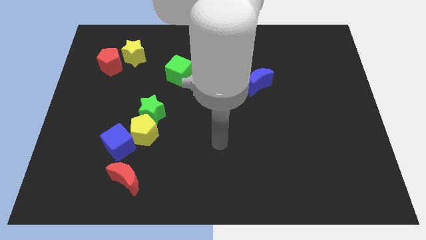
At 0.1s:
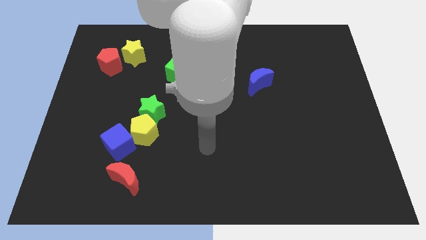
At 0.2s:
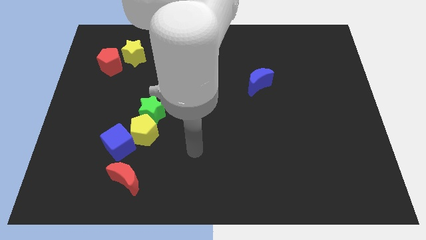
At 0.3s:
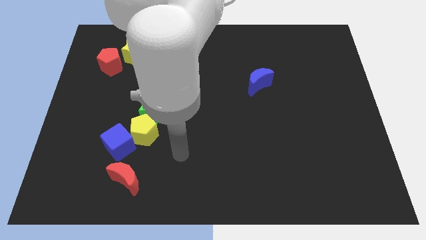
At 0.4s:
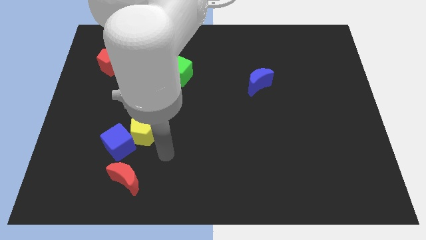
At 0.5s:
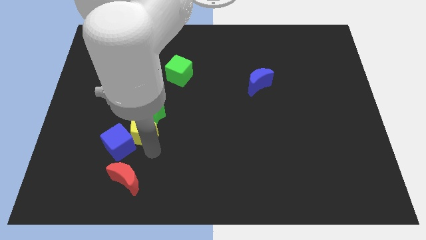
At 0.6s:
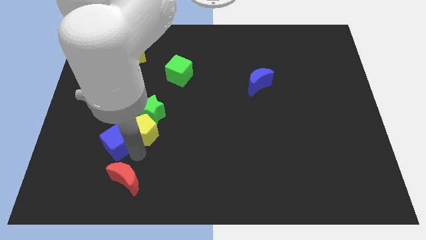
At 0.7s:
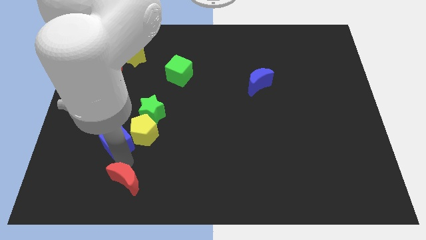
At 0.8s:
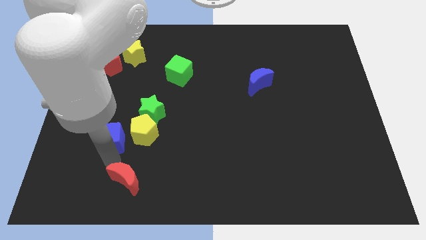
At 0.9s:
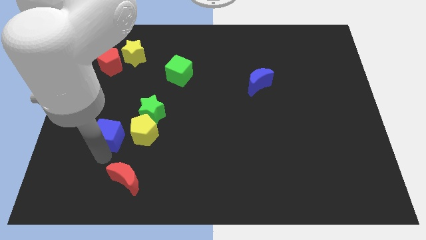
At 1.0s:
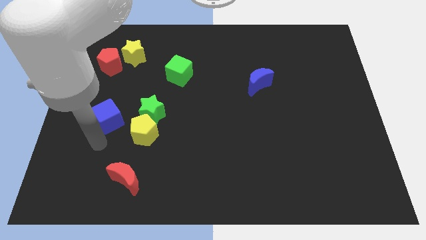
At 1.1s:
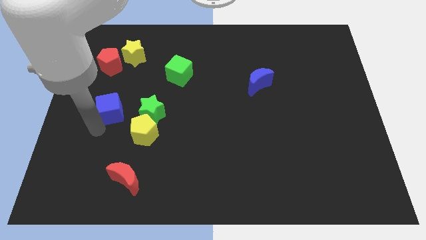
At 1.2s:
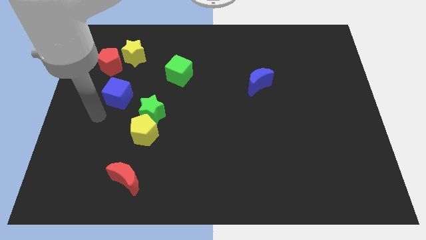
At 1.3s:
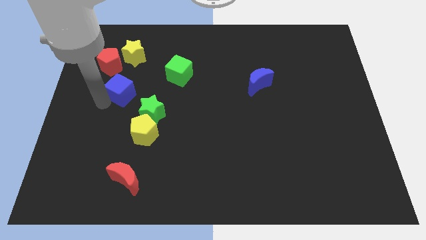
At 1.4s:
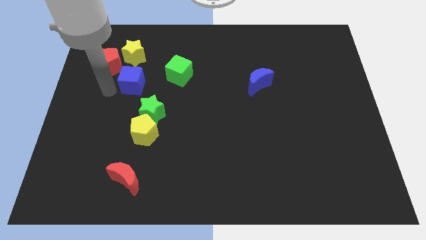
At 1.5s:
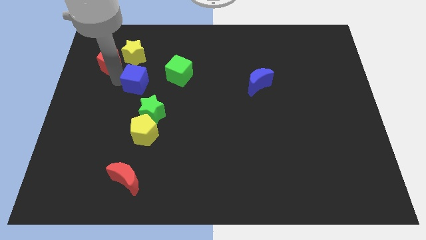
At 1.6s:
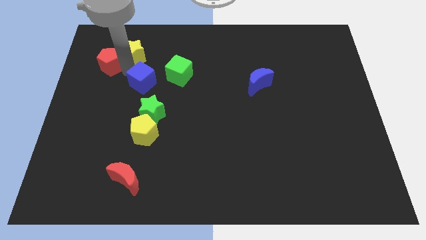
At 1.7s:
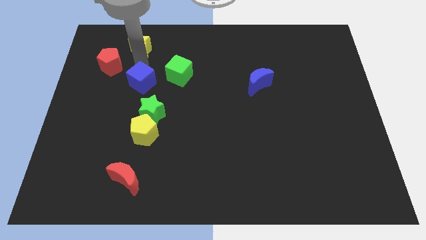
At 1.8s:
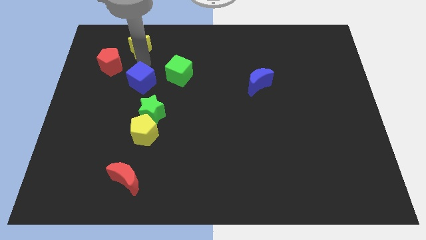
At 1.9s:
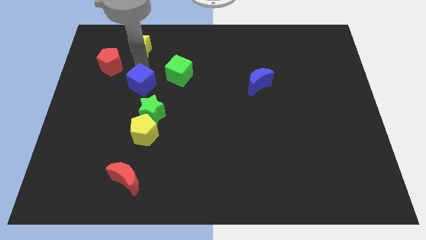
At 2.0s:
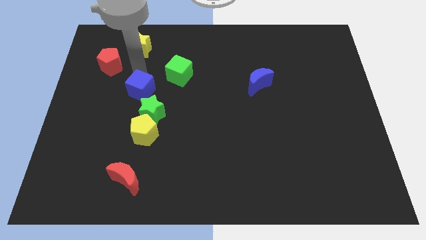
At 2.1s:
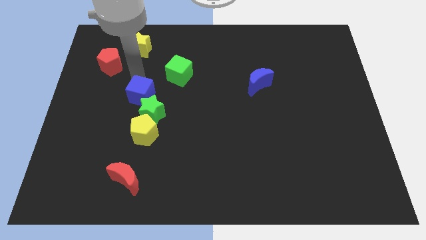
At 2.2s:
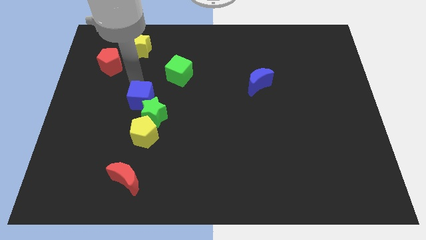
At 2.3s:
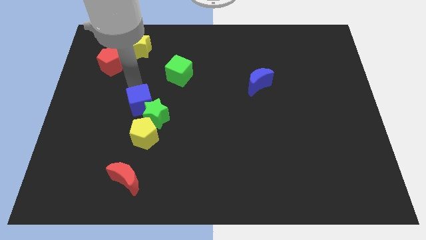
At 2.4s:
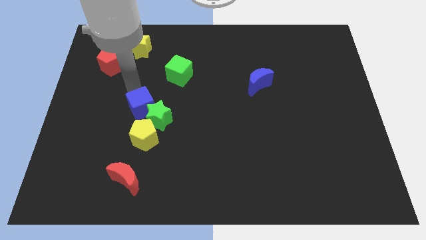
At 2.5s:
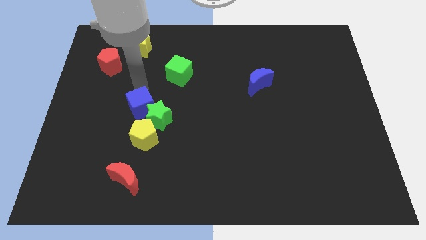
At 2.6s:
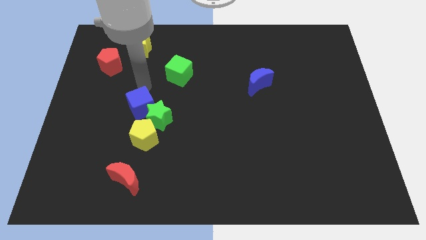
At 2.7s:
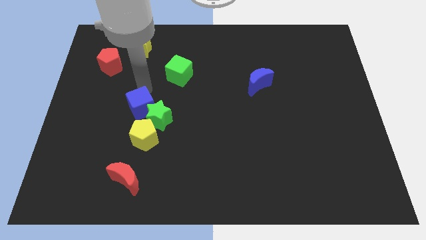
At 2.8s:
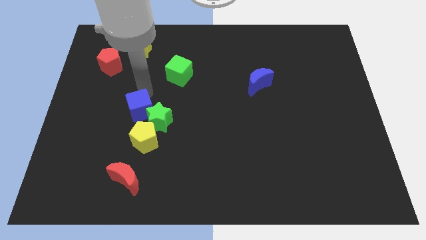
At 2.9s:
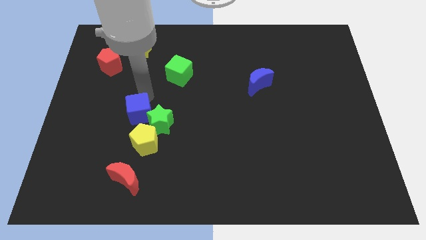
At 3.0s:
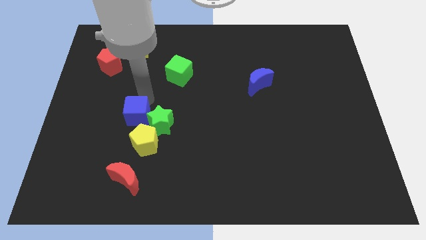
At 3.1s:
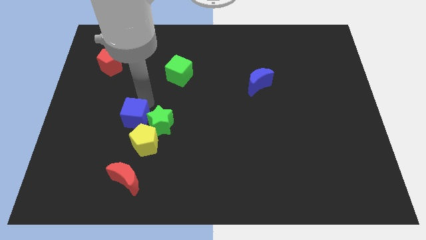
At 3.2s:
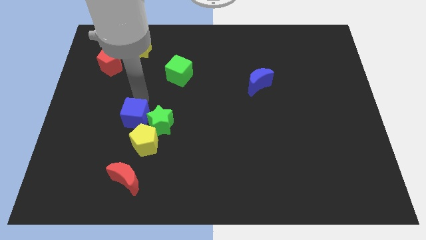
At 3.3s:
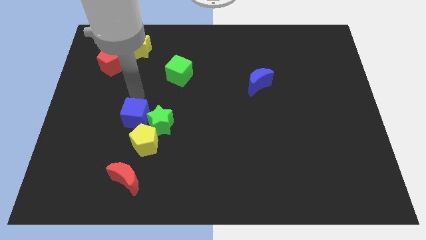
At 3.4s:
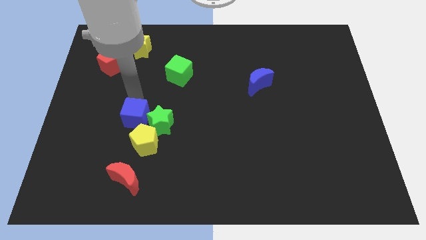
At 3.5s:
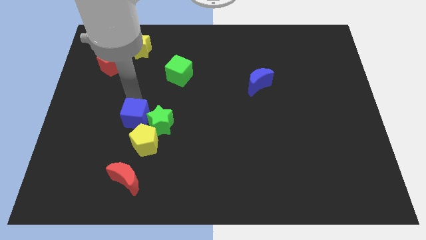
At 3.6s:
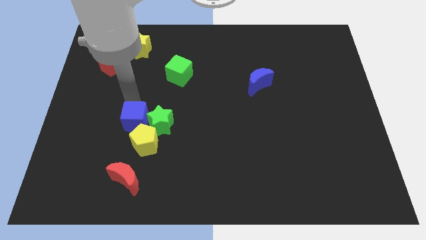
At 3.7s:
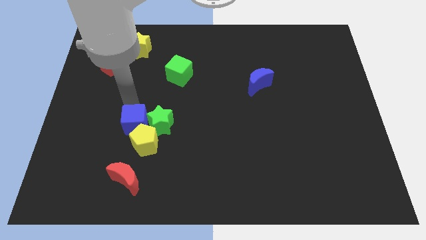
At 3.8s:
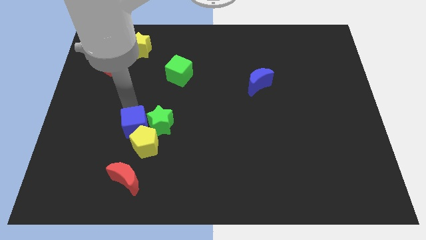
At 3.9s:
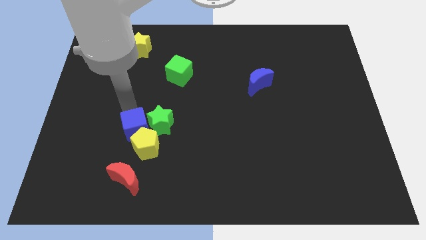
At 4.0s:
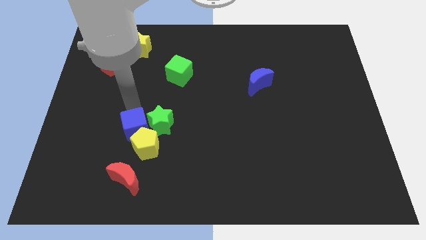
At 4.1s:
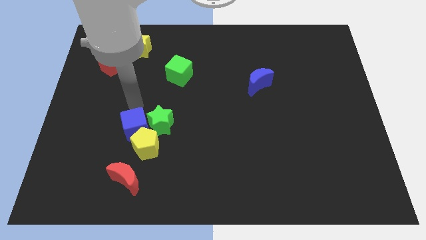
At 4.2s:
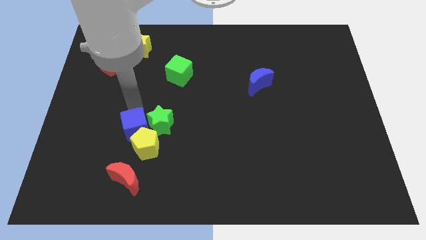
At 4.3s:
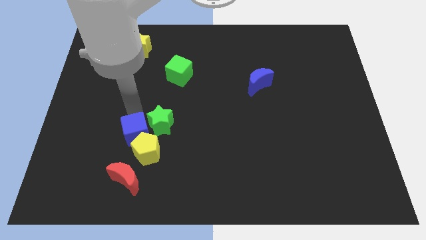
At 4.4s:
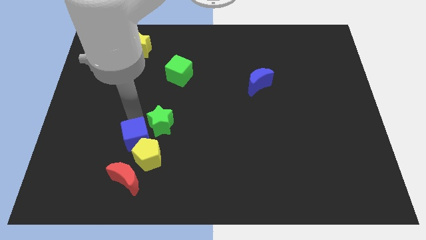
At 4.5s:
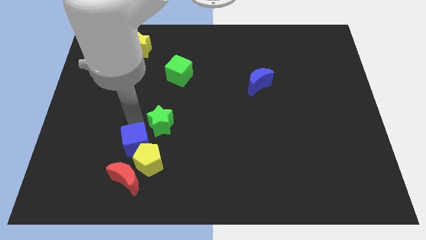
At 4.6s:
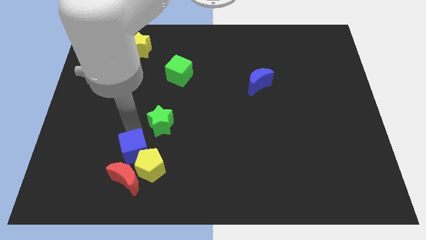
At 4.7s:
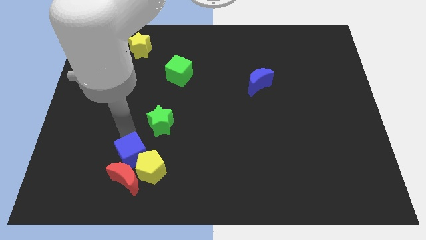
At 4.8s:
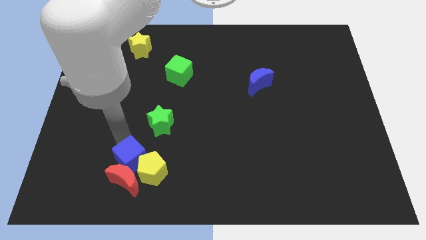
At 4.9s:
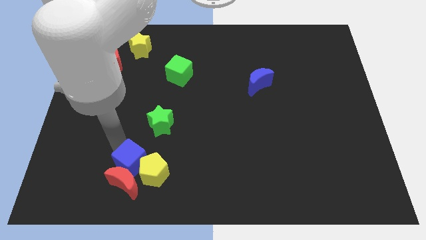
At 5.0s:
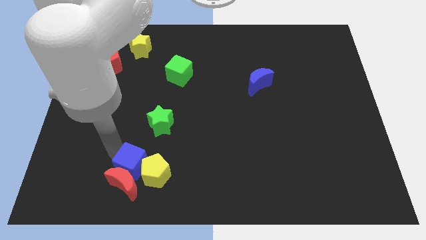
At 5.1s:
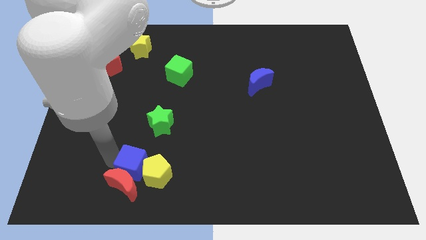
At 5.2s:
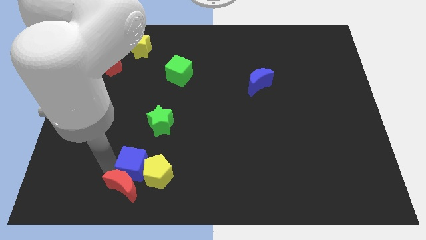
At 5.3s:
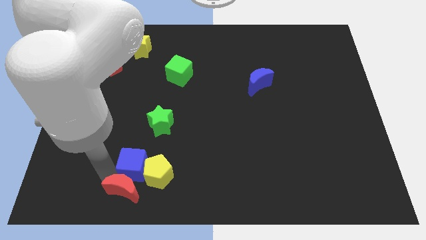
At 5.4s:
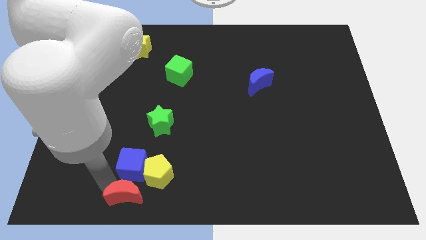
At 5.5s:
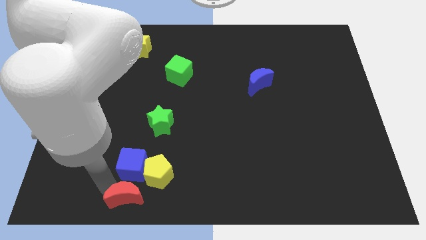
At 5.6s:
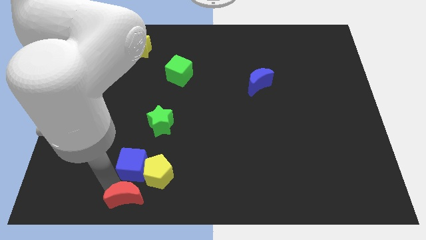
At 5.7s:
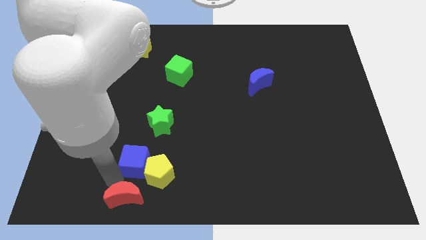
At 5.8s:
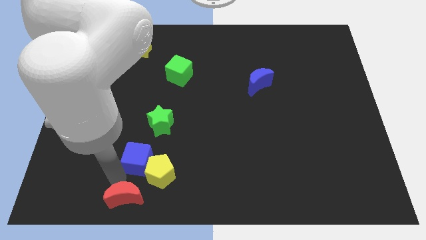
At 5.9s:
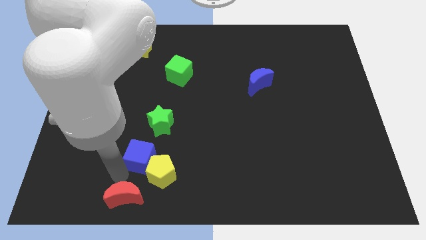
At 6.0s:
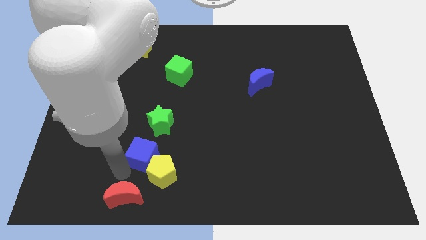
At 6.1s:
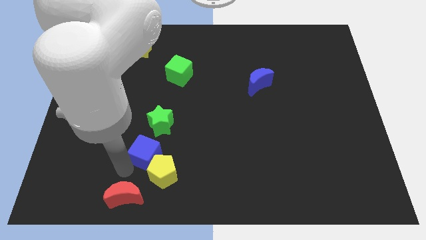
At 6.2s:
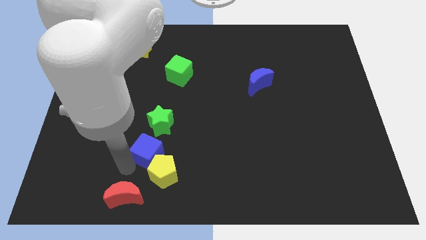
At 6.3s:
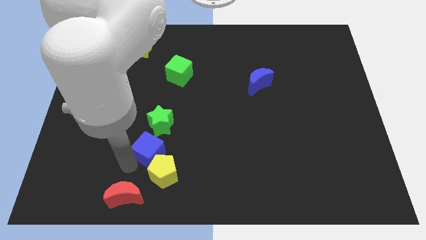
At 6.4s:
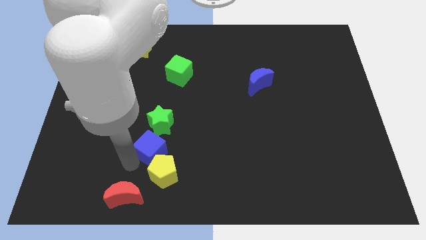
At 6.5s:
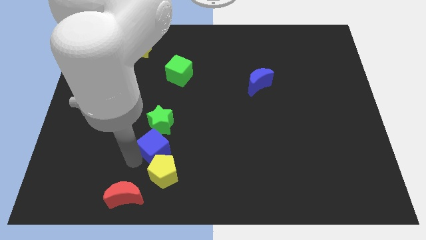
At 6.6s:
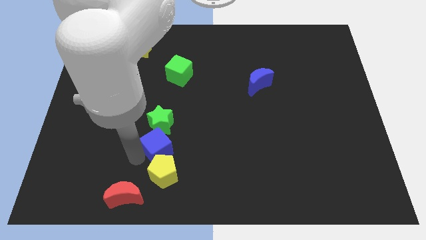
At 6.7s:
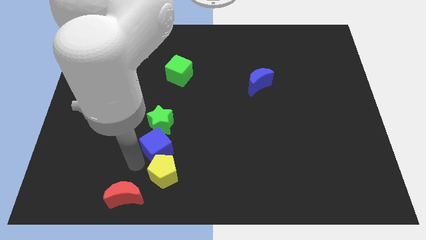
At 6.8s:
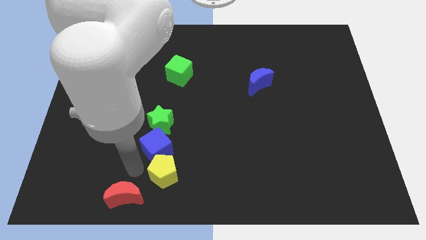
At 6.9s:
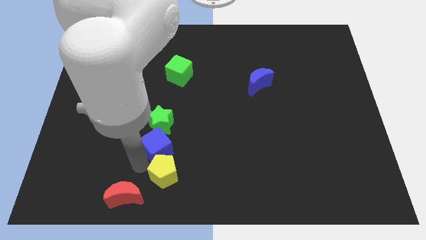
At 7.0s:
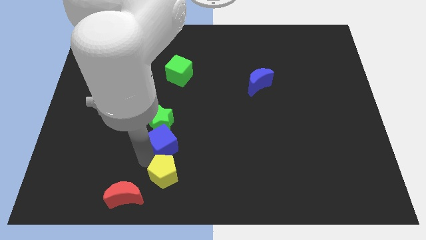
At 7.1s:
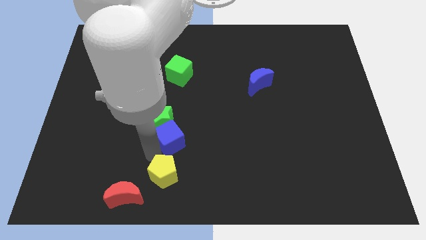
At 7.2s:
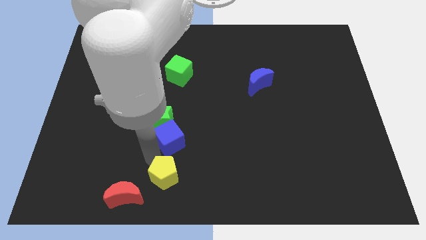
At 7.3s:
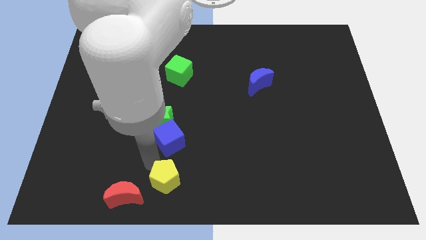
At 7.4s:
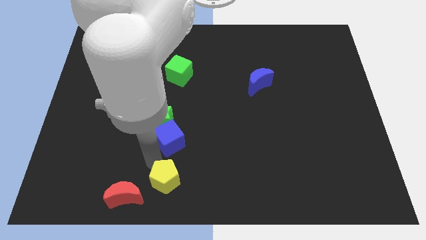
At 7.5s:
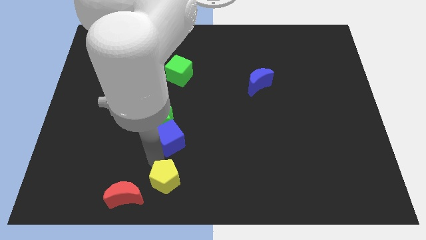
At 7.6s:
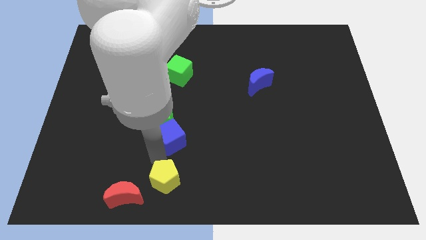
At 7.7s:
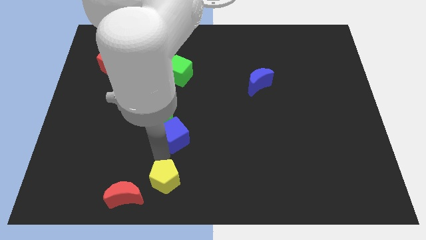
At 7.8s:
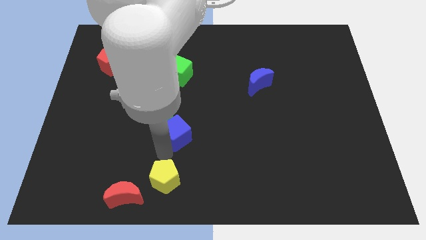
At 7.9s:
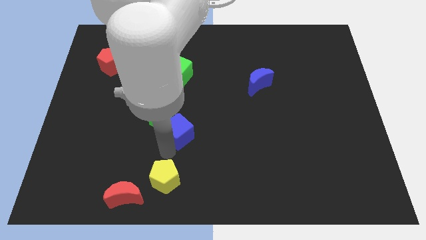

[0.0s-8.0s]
slide the blue cube to the middle of the board
